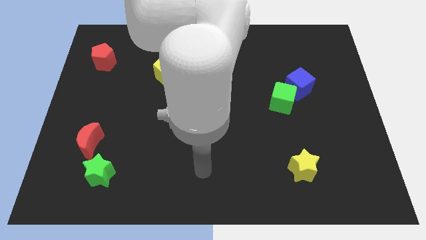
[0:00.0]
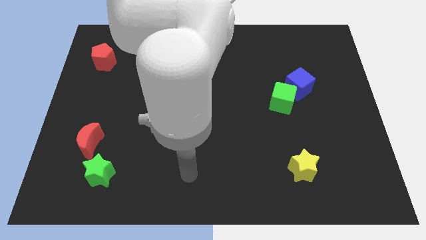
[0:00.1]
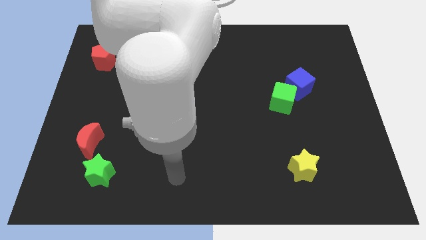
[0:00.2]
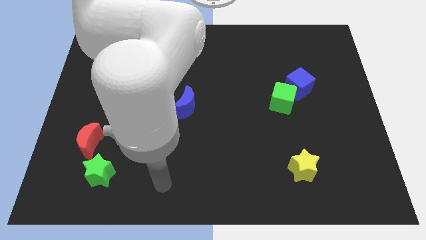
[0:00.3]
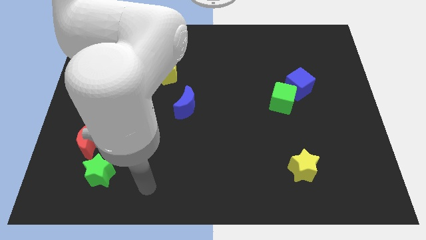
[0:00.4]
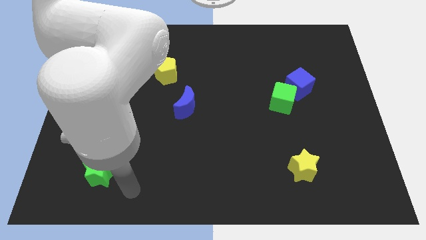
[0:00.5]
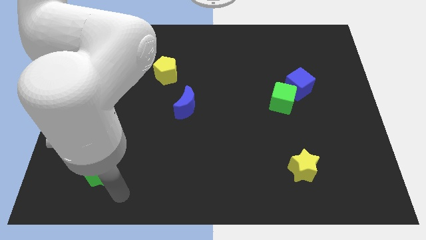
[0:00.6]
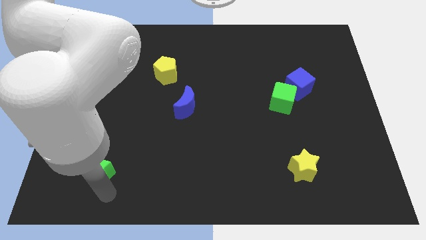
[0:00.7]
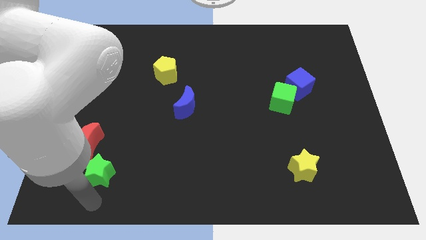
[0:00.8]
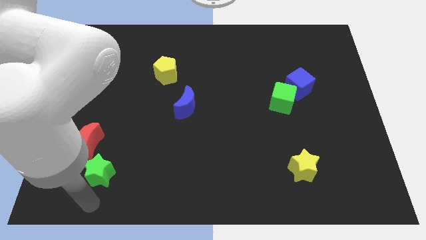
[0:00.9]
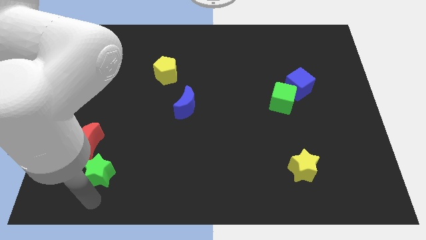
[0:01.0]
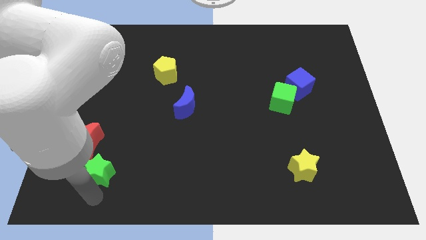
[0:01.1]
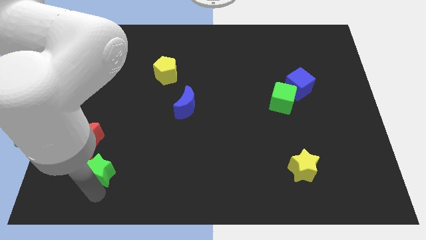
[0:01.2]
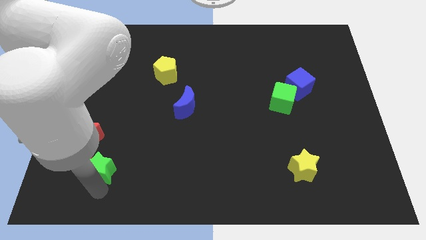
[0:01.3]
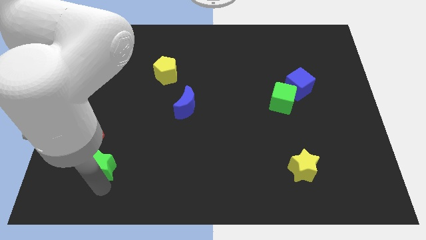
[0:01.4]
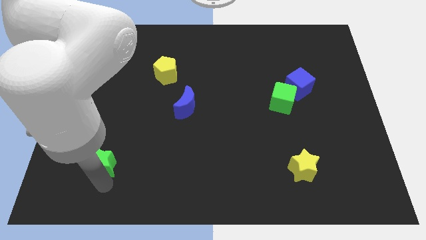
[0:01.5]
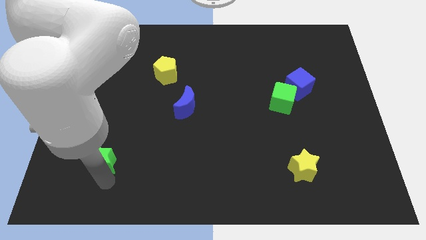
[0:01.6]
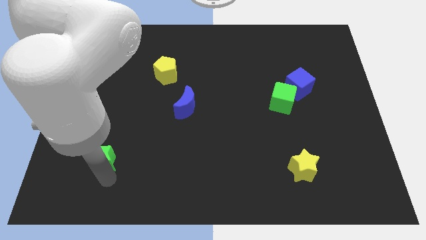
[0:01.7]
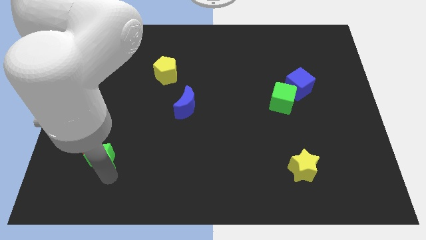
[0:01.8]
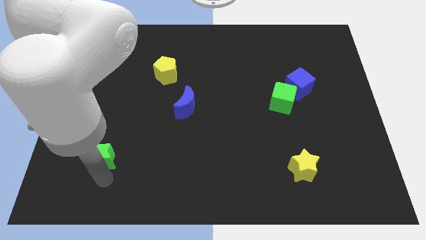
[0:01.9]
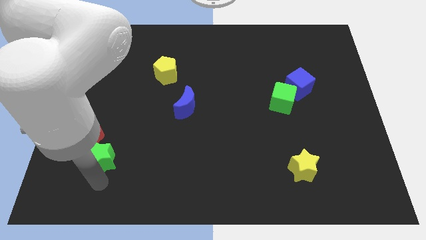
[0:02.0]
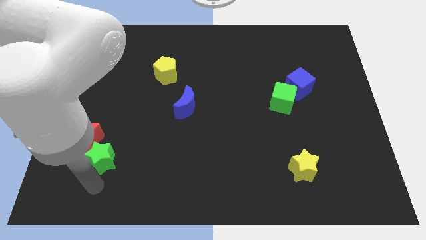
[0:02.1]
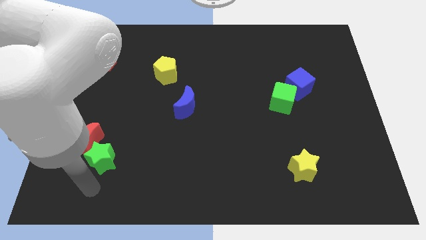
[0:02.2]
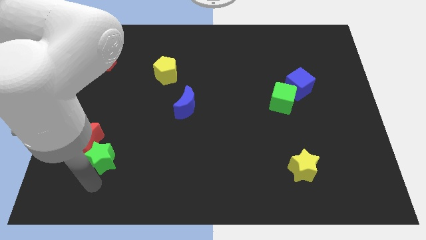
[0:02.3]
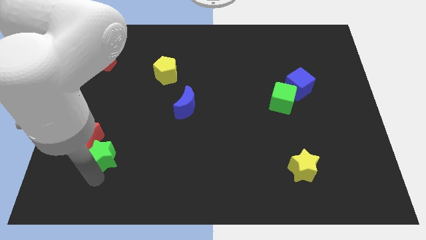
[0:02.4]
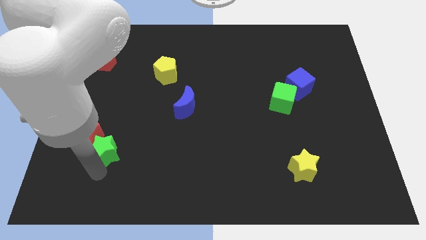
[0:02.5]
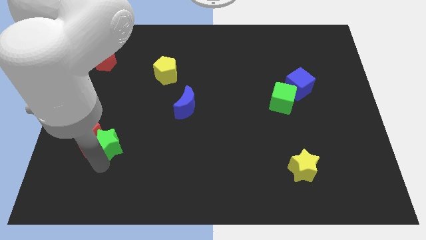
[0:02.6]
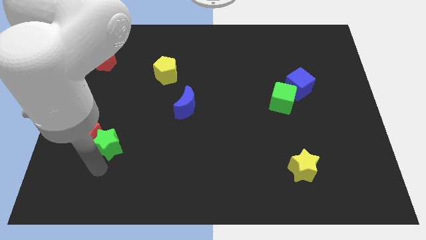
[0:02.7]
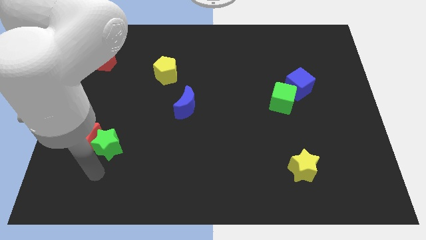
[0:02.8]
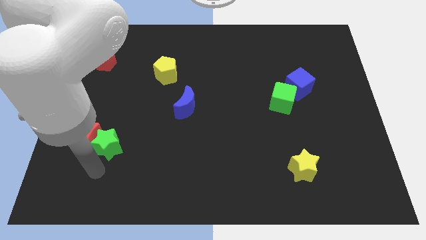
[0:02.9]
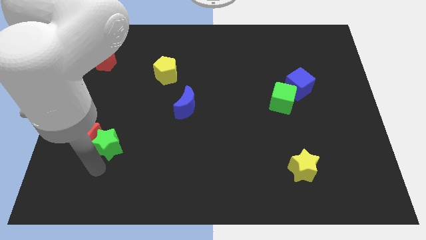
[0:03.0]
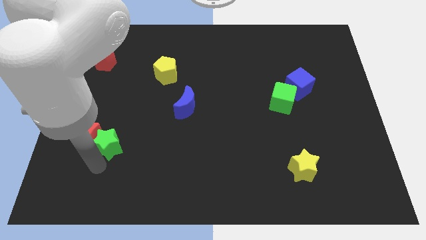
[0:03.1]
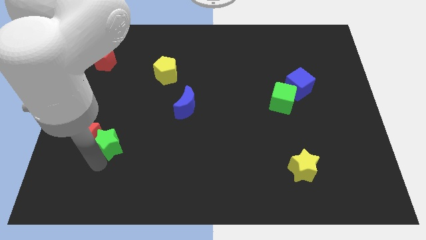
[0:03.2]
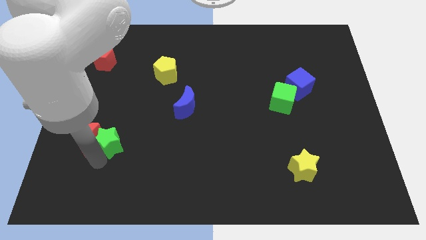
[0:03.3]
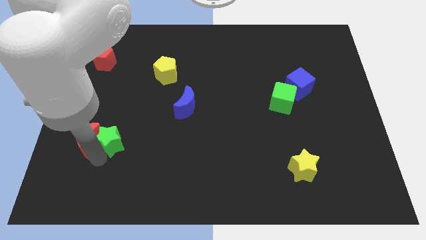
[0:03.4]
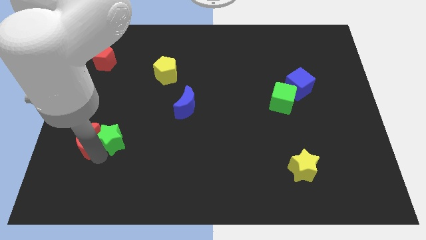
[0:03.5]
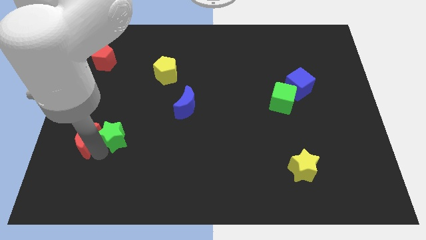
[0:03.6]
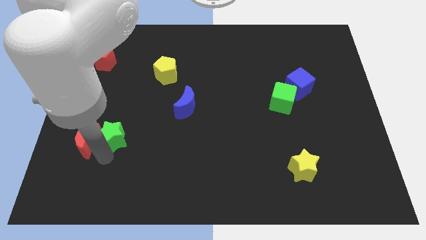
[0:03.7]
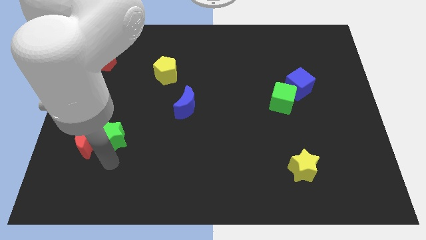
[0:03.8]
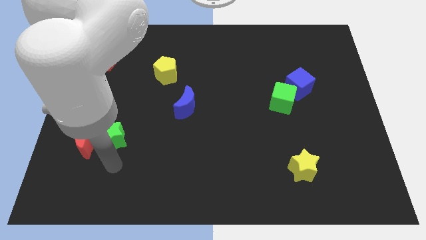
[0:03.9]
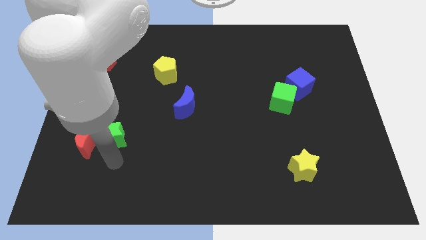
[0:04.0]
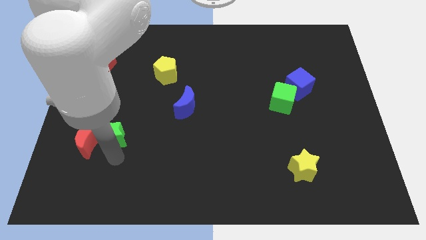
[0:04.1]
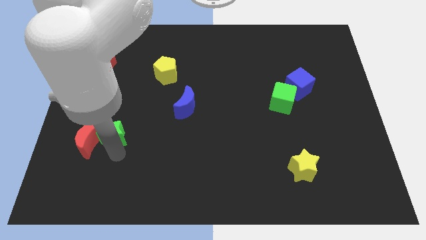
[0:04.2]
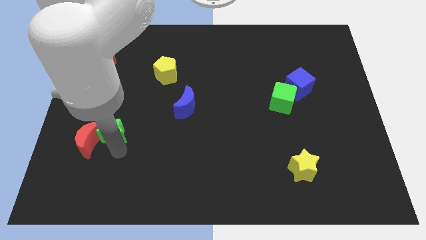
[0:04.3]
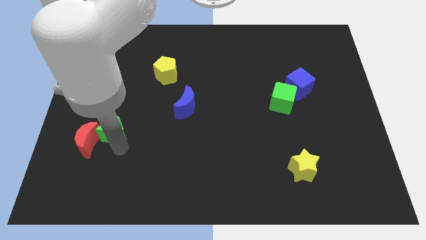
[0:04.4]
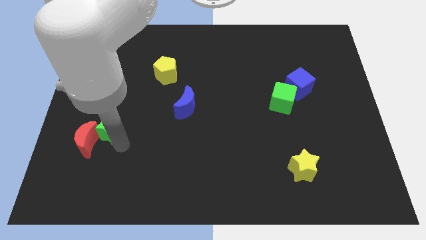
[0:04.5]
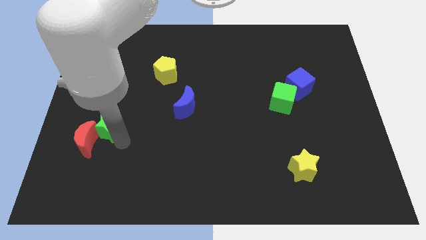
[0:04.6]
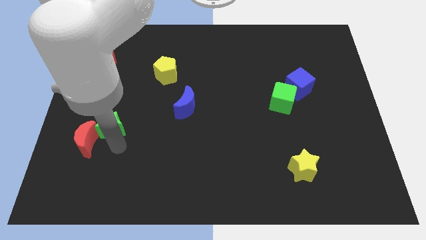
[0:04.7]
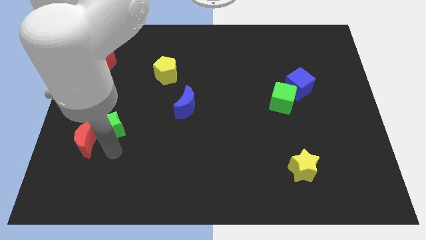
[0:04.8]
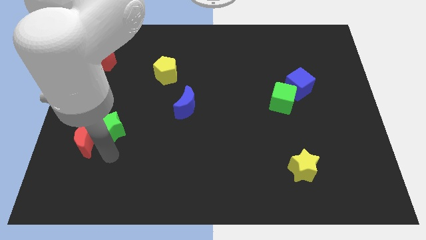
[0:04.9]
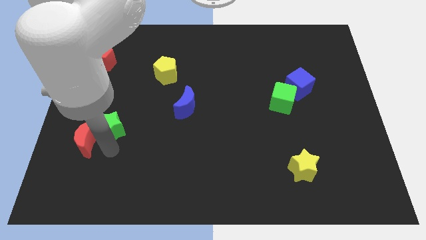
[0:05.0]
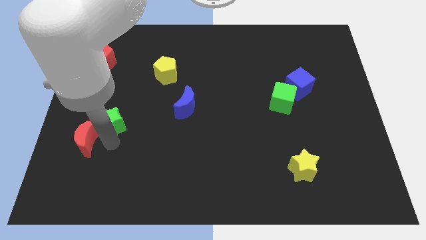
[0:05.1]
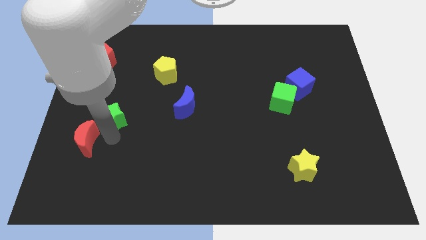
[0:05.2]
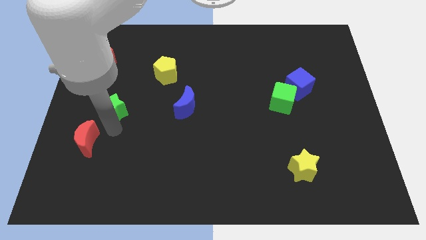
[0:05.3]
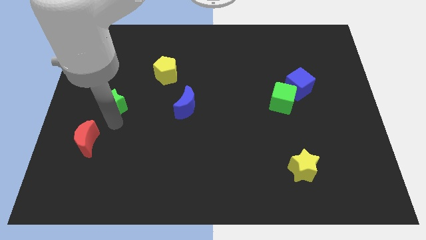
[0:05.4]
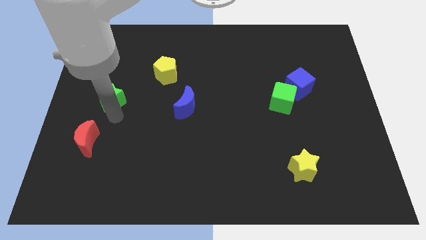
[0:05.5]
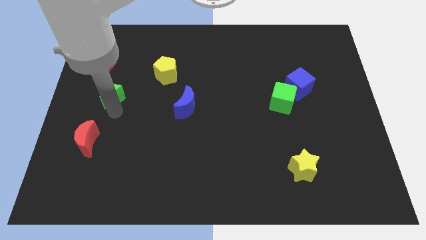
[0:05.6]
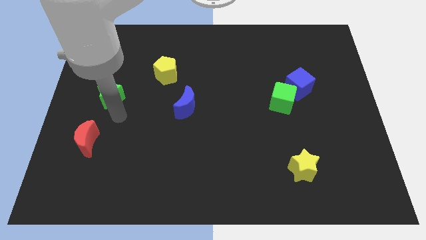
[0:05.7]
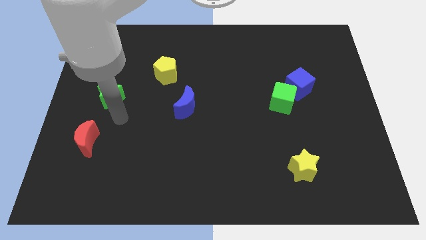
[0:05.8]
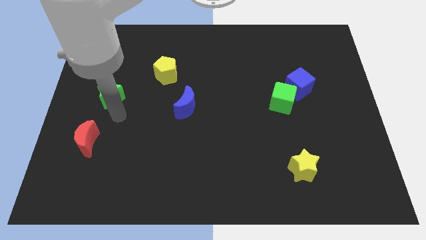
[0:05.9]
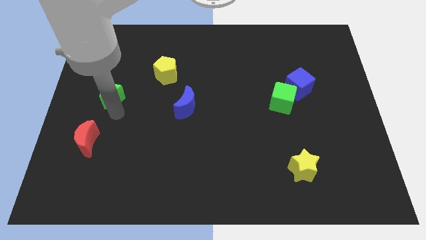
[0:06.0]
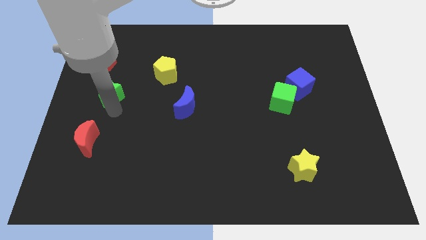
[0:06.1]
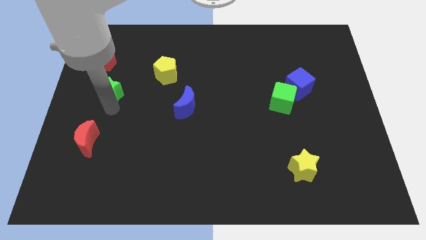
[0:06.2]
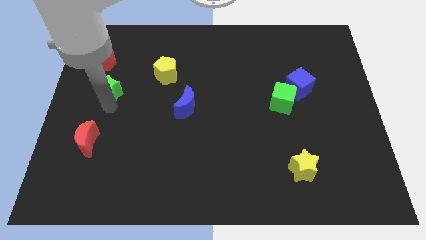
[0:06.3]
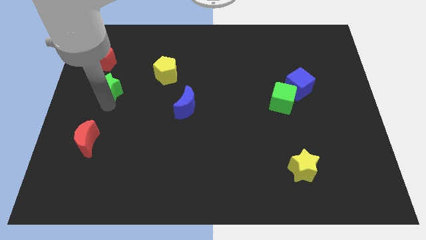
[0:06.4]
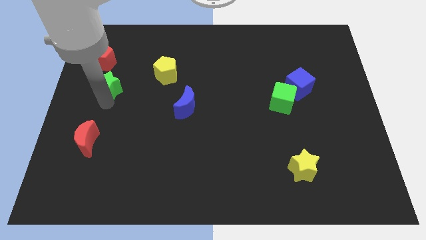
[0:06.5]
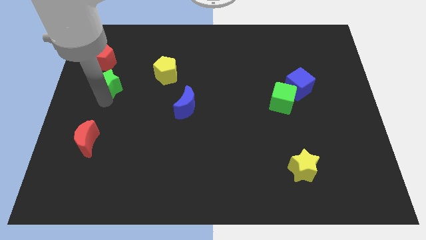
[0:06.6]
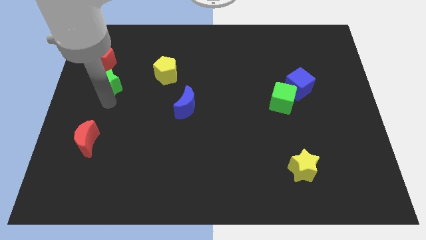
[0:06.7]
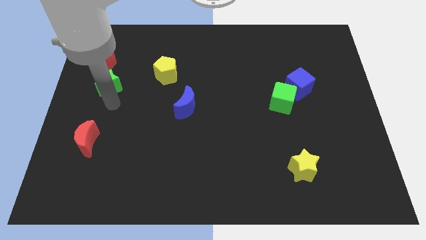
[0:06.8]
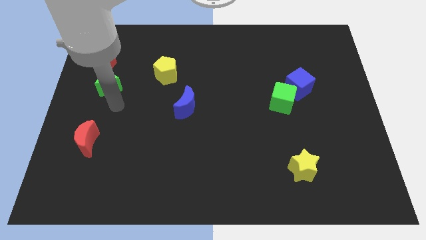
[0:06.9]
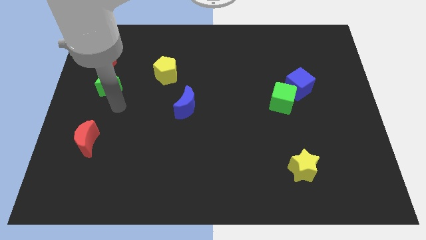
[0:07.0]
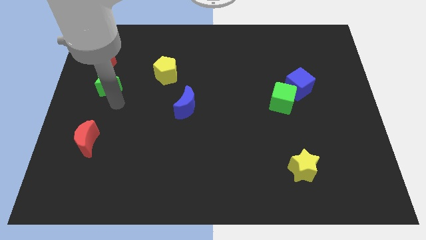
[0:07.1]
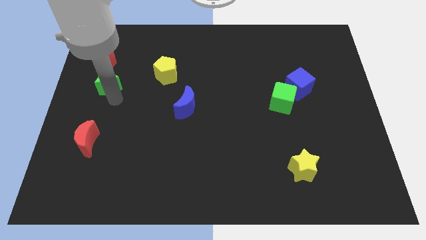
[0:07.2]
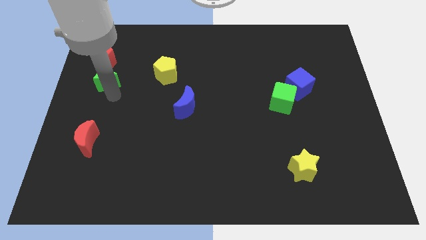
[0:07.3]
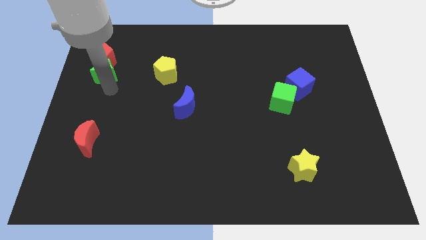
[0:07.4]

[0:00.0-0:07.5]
move the green star to the red pentagon
